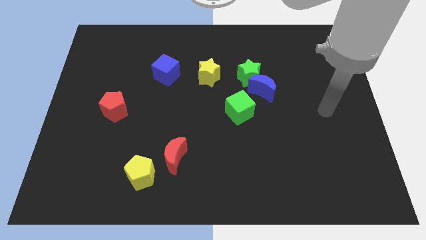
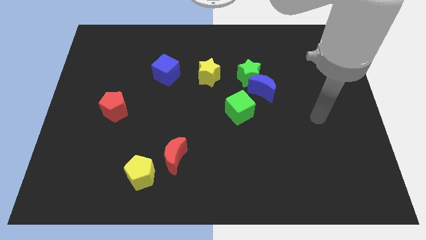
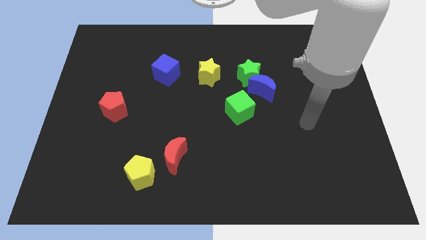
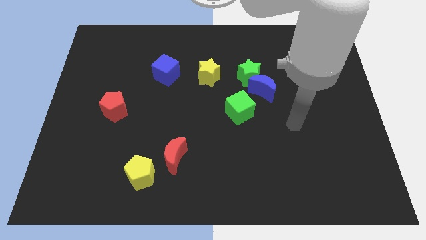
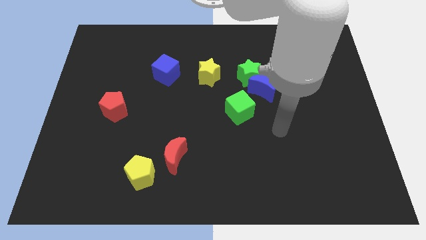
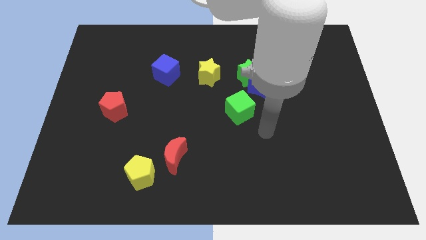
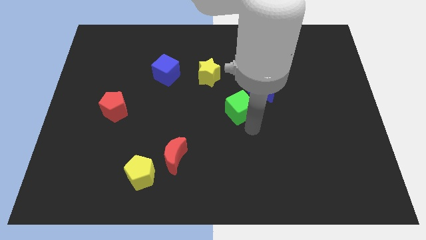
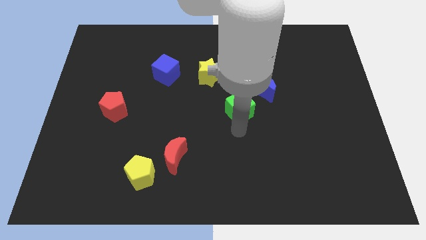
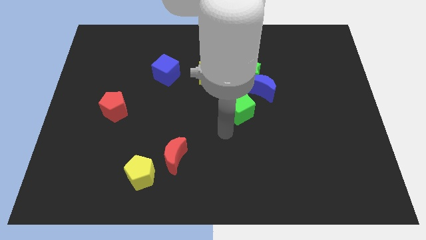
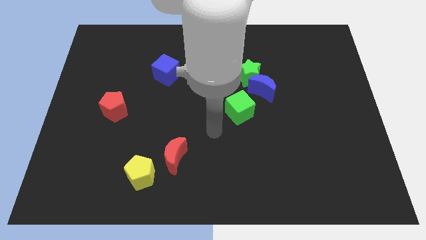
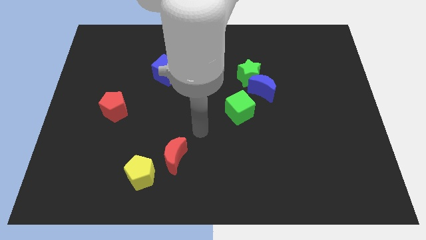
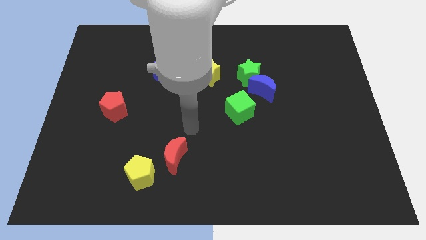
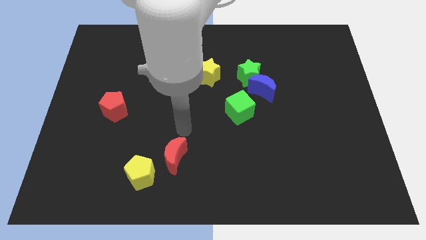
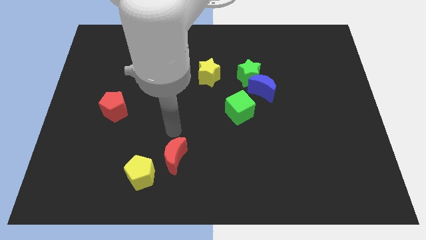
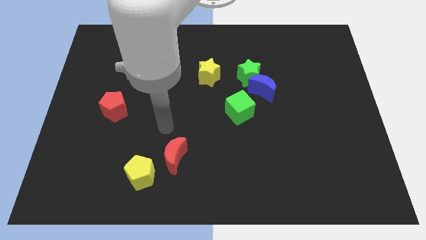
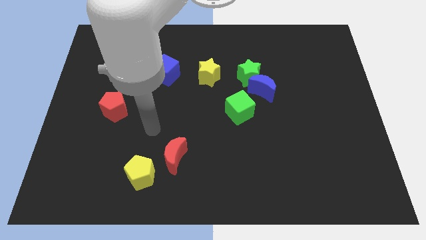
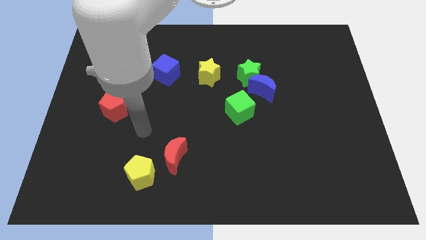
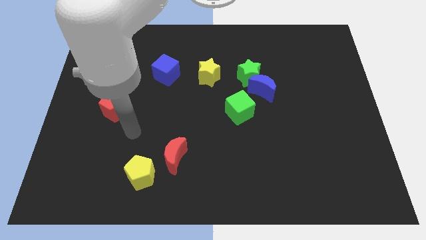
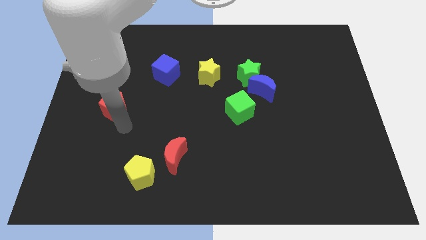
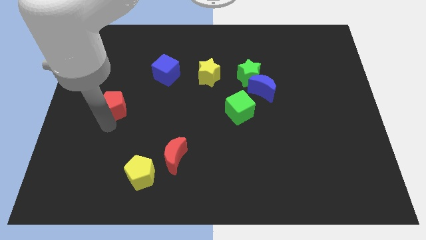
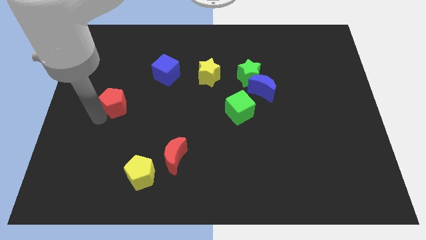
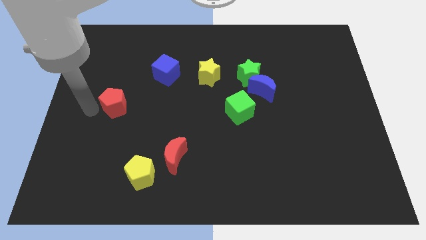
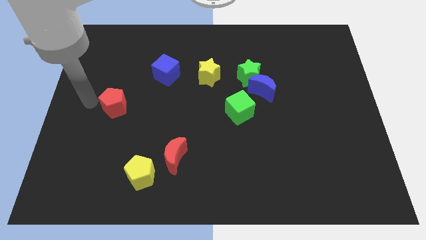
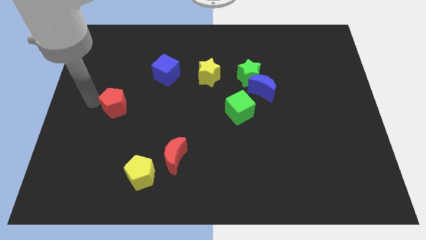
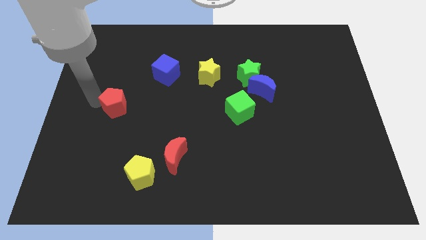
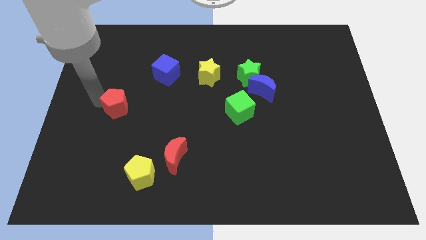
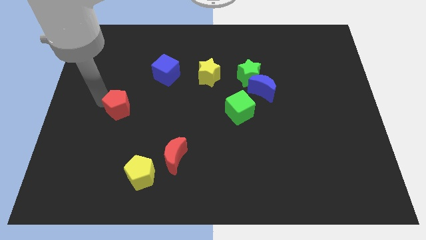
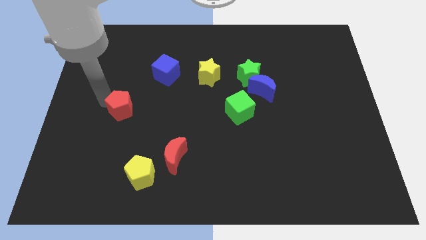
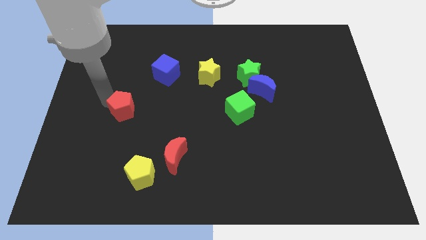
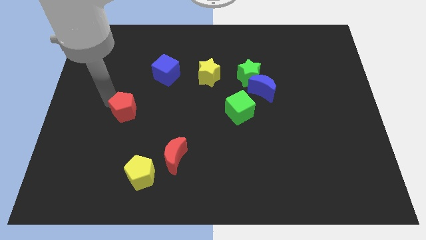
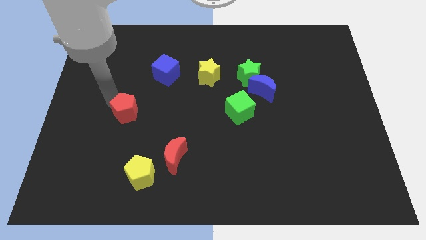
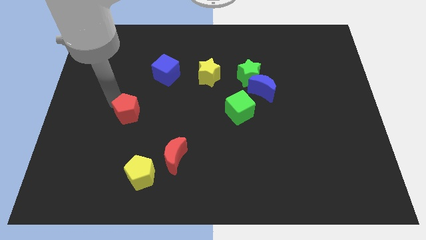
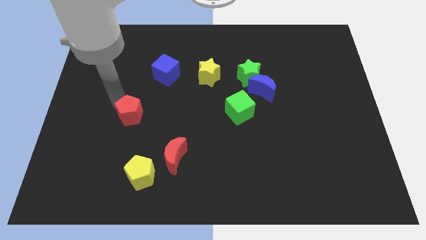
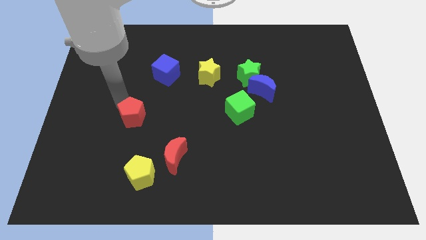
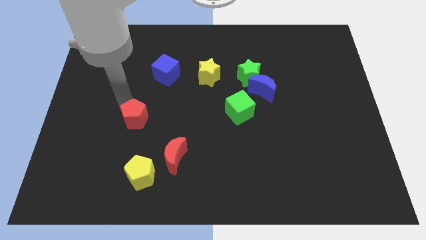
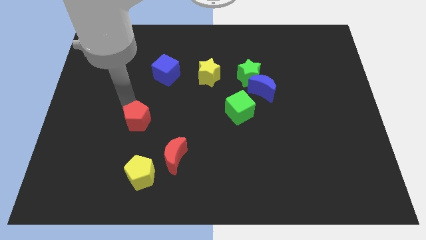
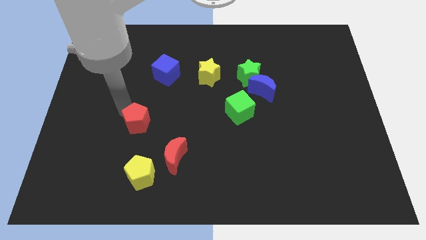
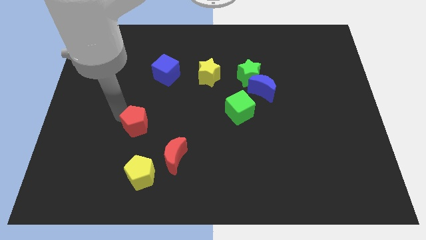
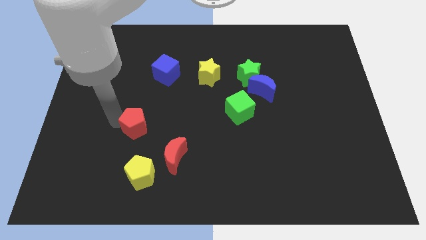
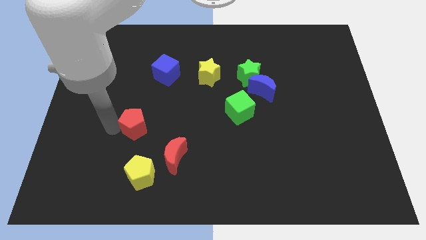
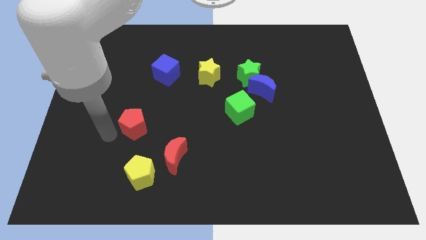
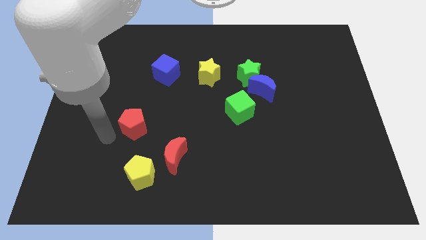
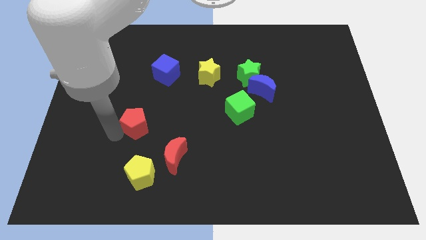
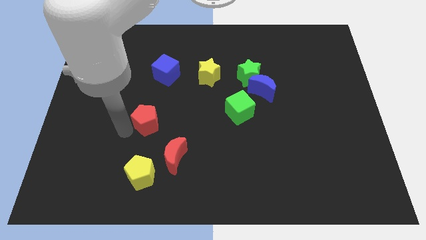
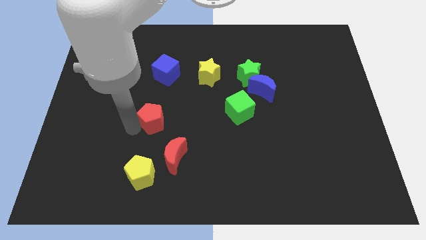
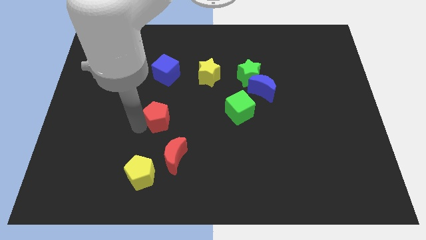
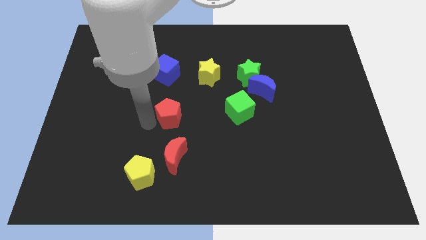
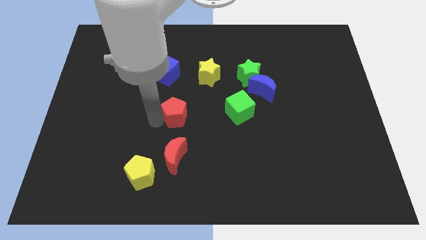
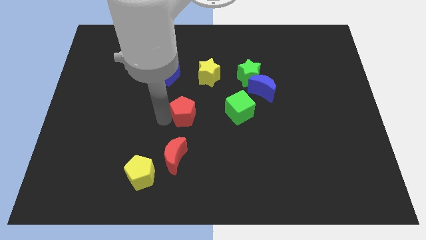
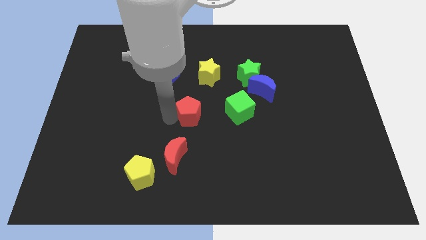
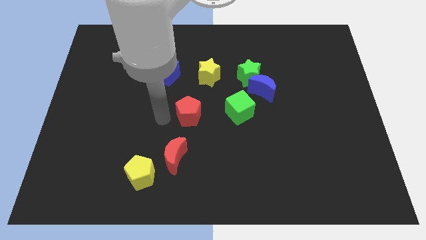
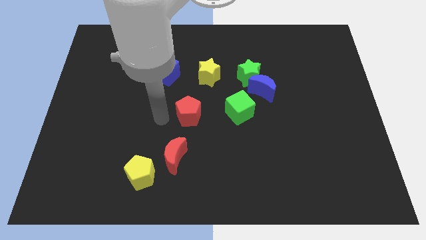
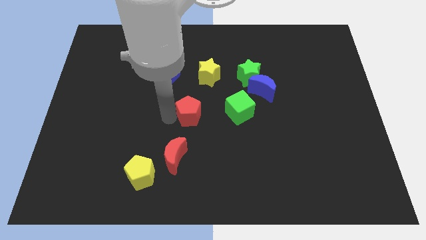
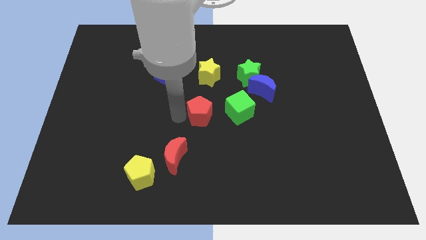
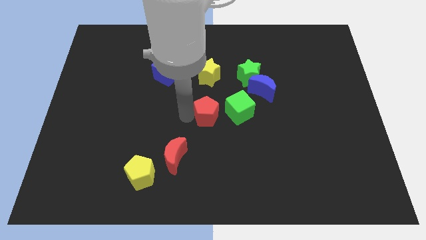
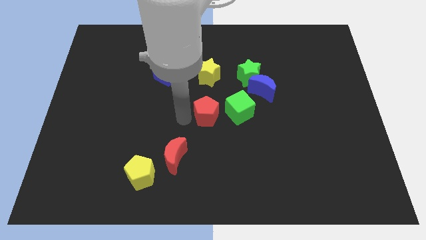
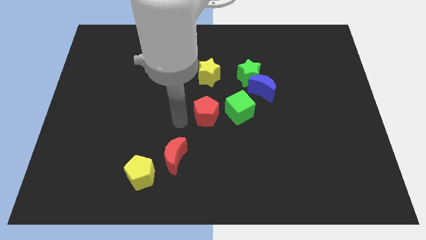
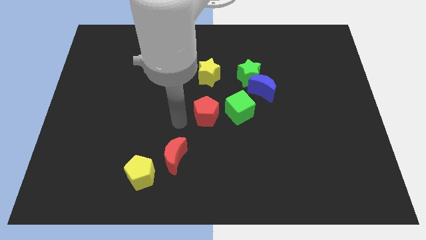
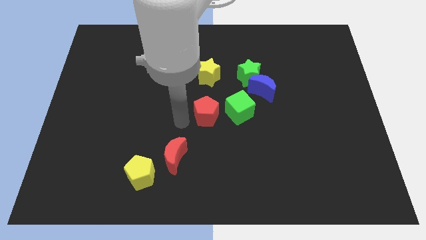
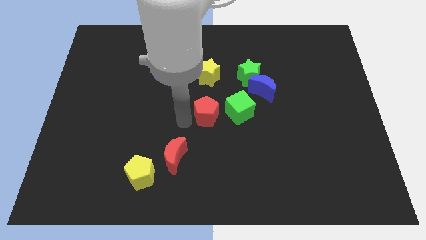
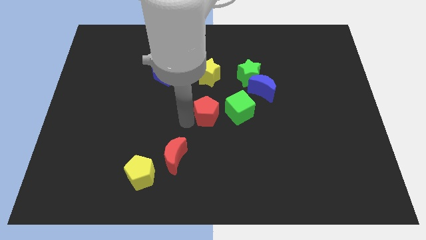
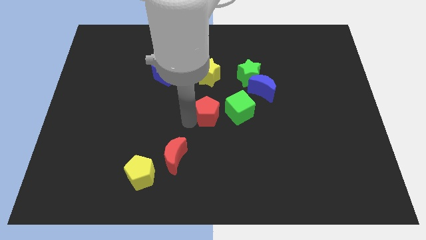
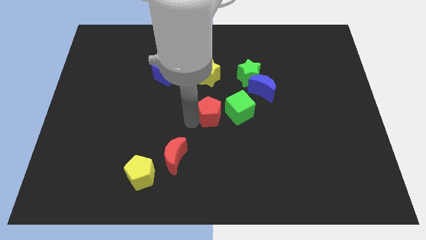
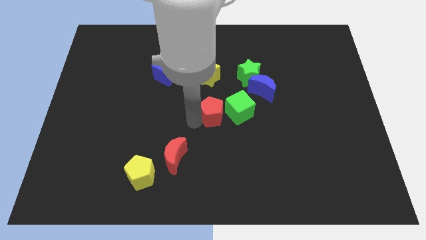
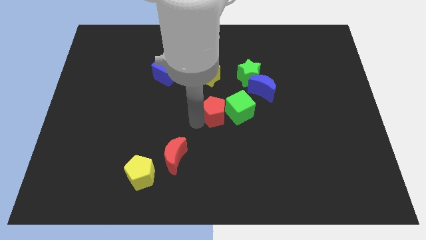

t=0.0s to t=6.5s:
slide the red pentagon towards the green cube

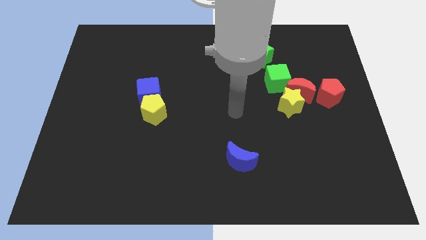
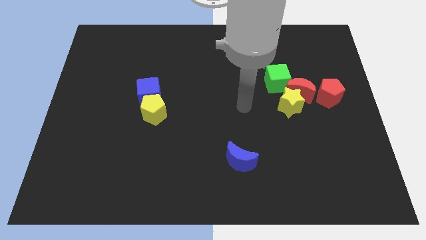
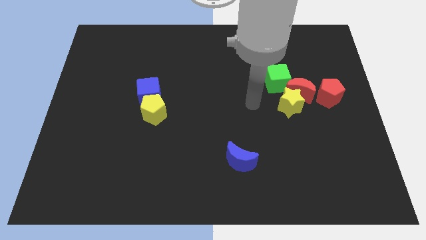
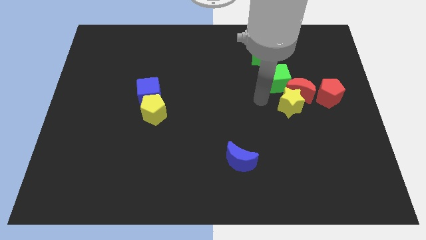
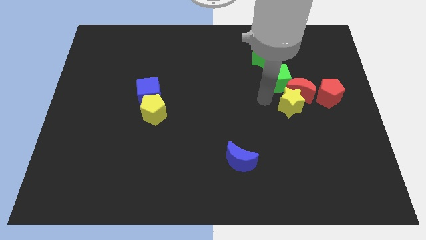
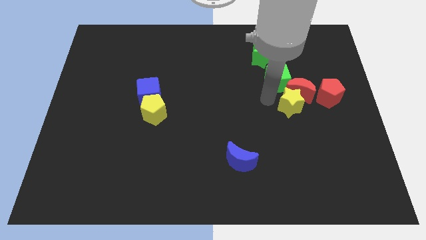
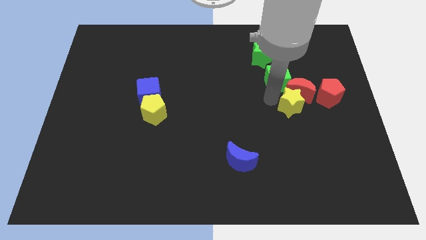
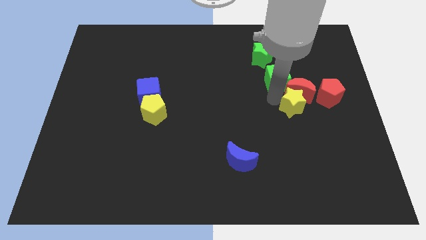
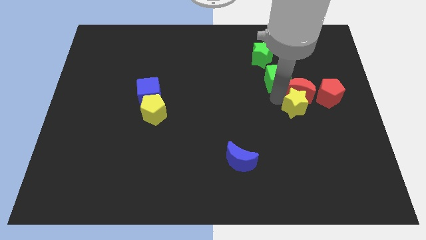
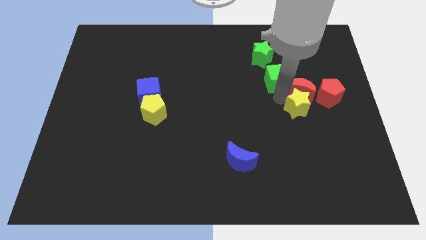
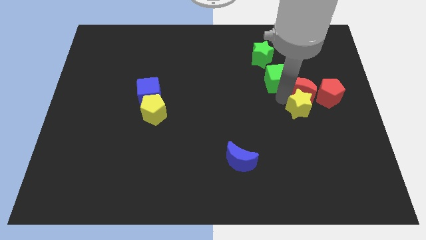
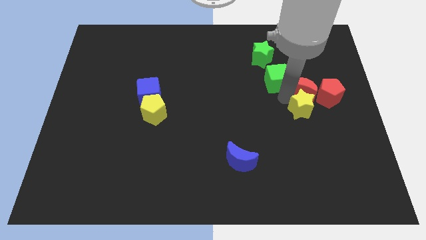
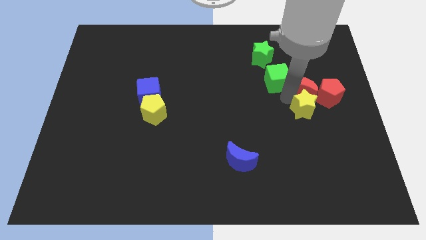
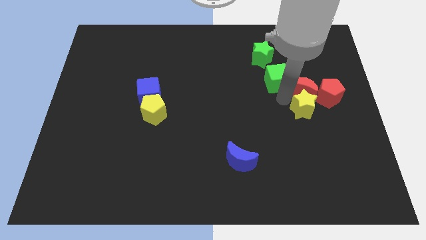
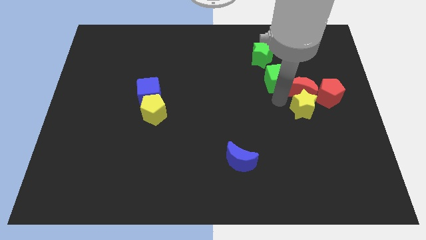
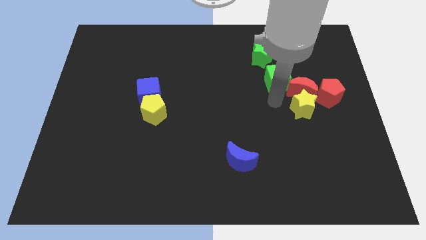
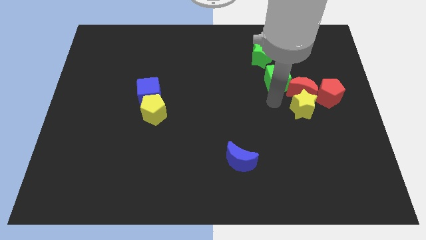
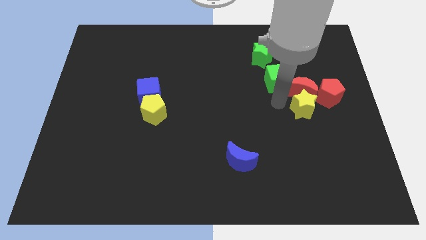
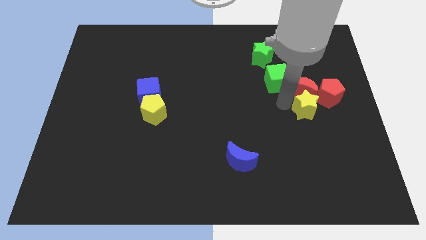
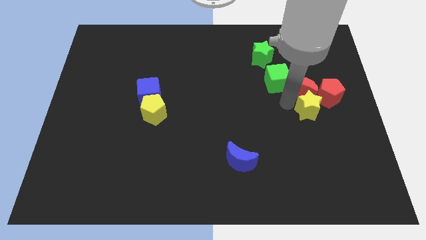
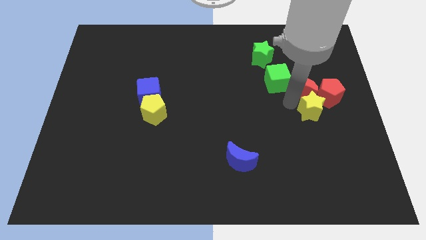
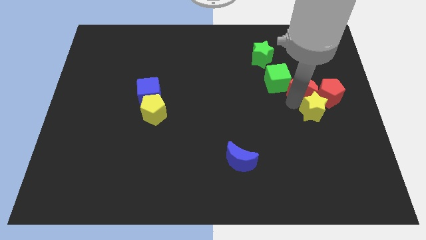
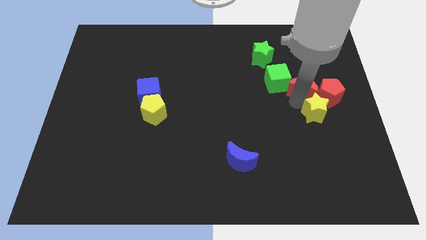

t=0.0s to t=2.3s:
put the yellow star to the red pentagon
